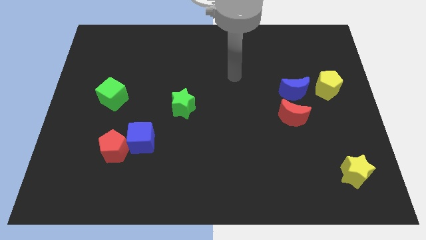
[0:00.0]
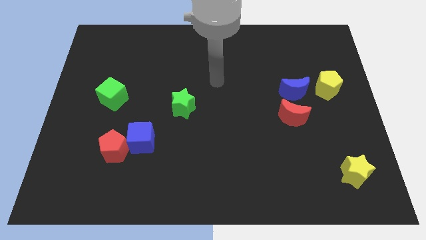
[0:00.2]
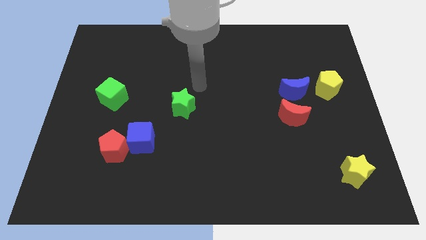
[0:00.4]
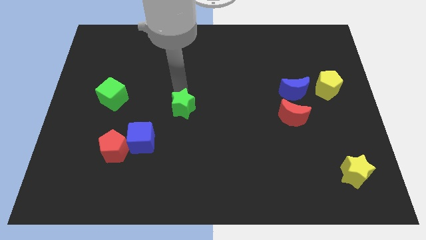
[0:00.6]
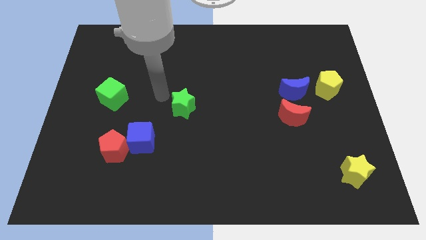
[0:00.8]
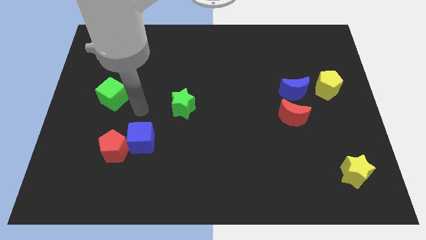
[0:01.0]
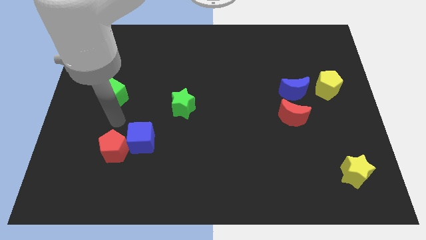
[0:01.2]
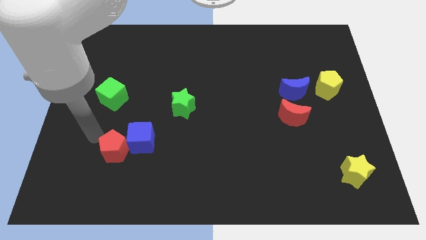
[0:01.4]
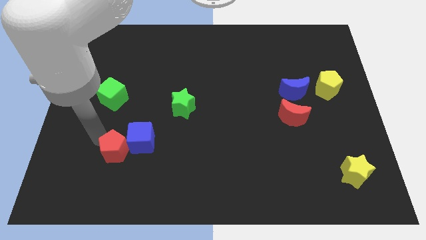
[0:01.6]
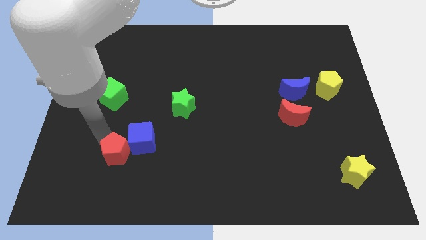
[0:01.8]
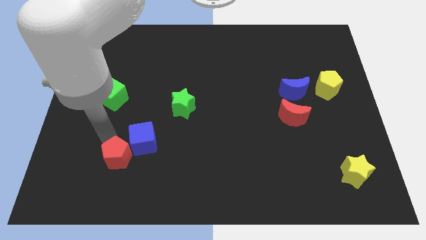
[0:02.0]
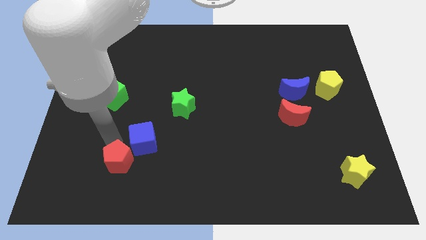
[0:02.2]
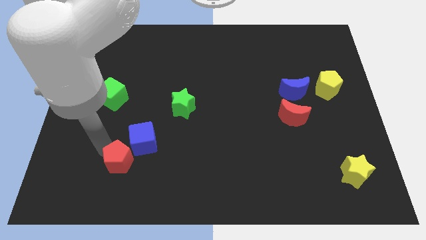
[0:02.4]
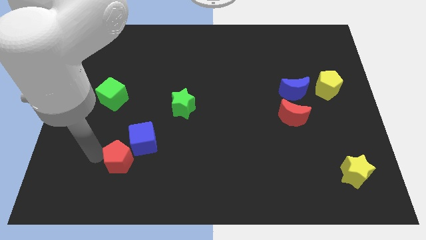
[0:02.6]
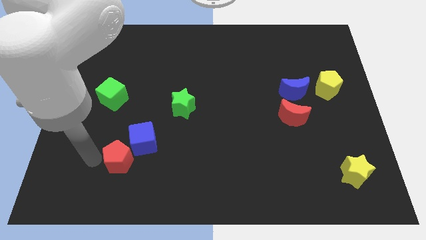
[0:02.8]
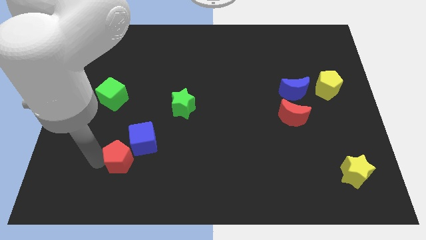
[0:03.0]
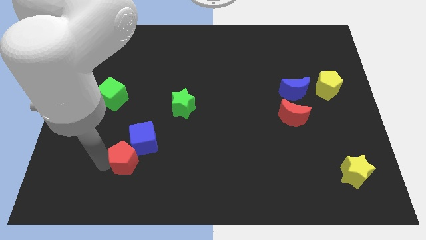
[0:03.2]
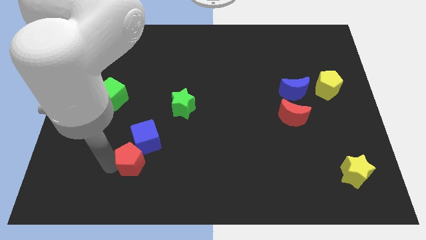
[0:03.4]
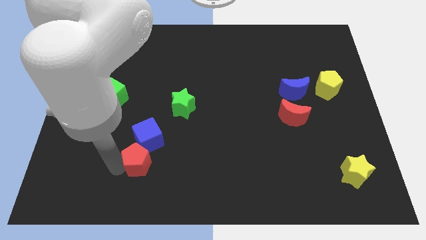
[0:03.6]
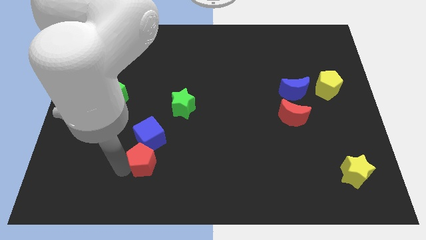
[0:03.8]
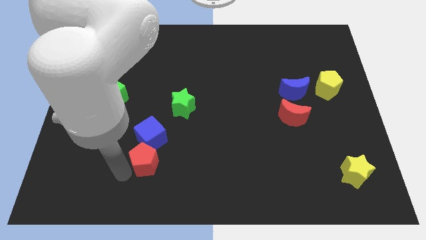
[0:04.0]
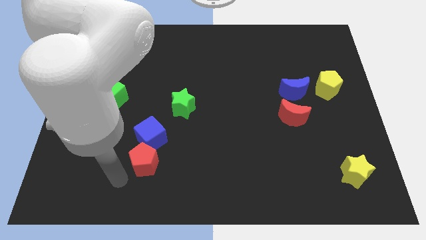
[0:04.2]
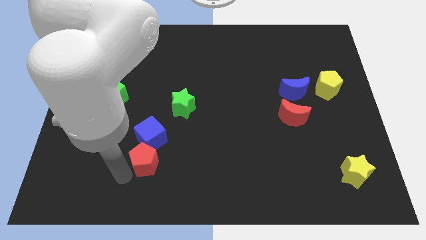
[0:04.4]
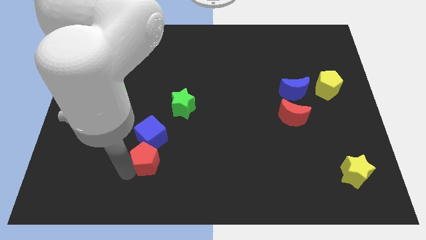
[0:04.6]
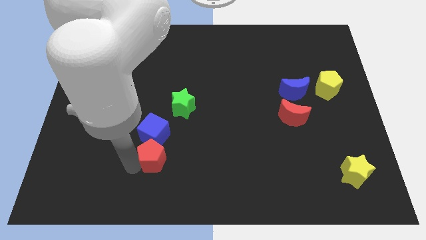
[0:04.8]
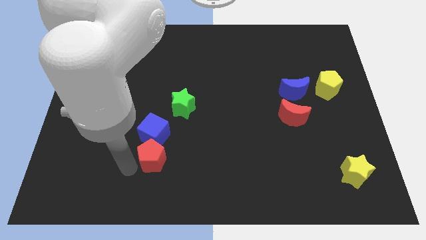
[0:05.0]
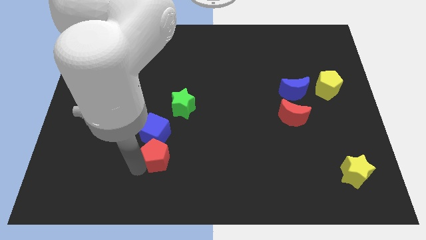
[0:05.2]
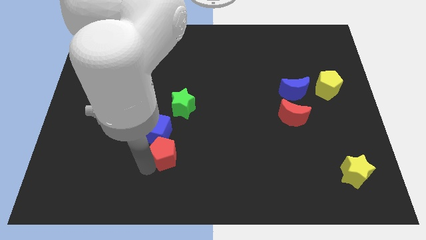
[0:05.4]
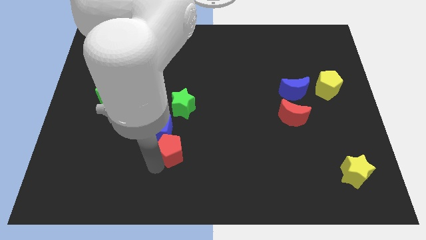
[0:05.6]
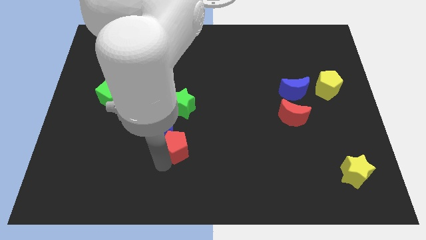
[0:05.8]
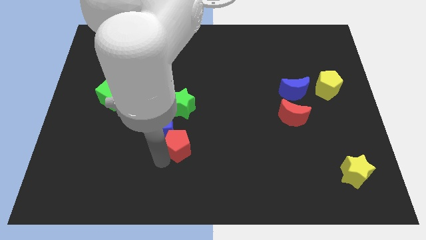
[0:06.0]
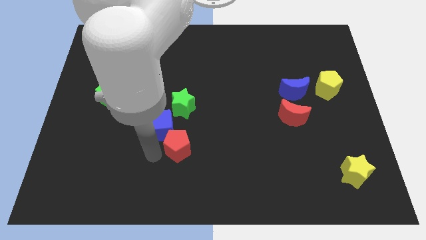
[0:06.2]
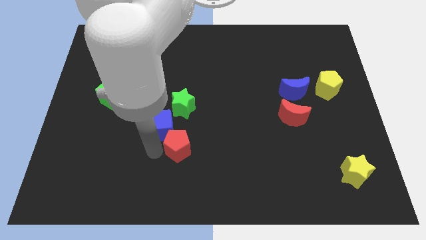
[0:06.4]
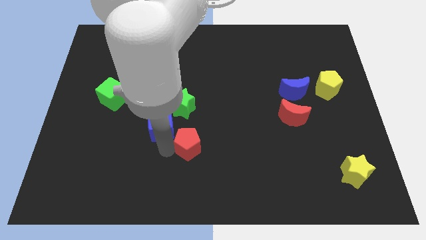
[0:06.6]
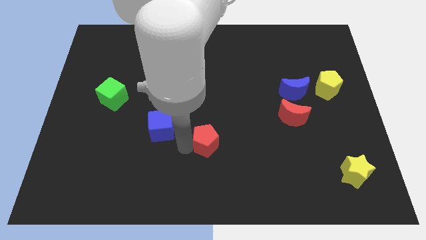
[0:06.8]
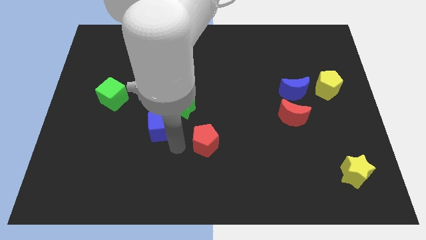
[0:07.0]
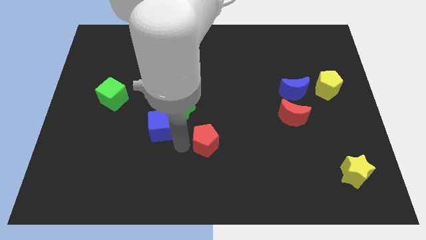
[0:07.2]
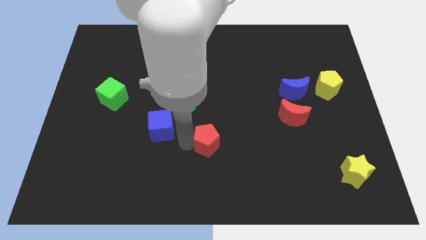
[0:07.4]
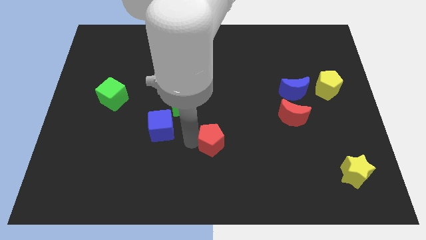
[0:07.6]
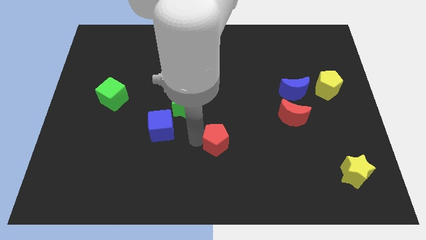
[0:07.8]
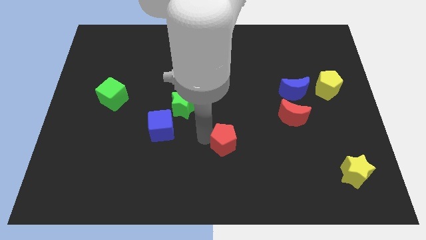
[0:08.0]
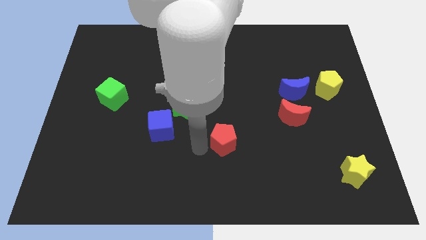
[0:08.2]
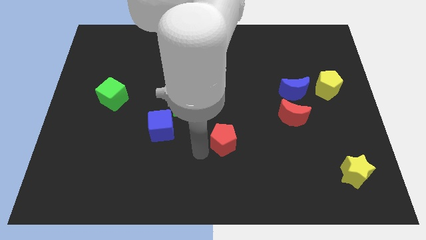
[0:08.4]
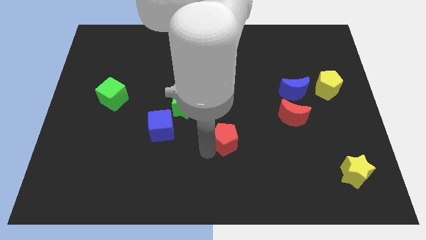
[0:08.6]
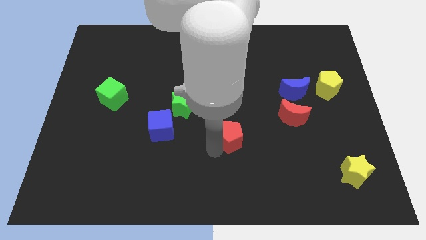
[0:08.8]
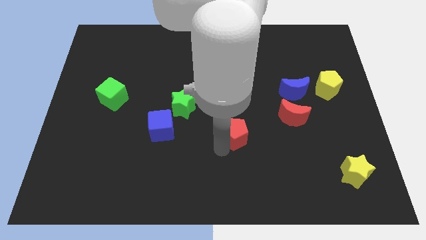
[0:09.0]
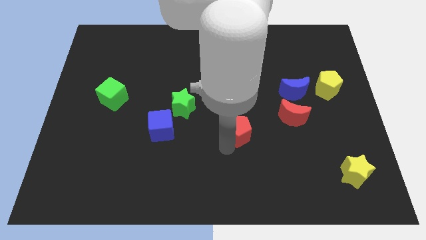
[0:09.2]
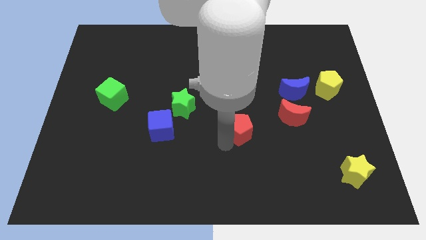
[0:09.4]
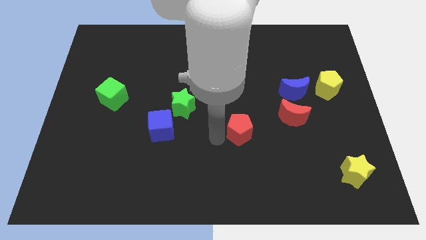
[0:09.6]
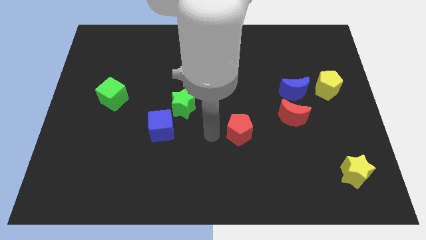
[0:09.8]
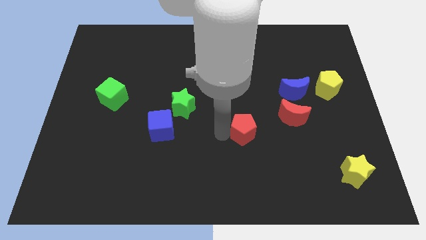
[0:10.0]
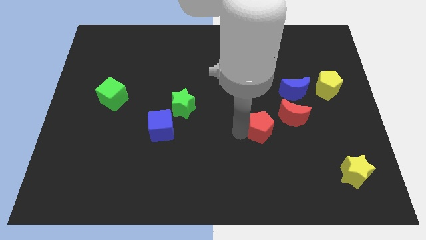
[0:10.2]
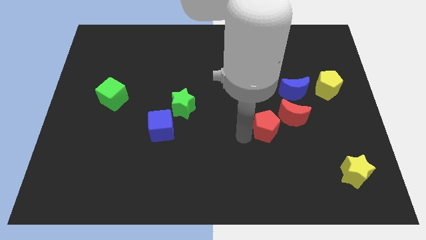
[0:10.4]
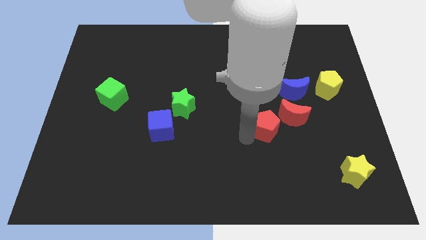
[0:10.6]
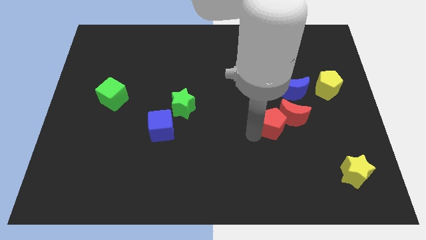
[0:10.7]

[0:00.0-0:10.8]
put the red pentagon next to the red moon

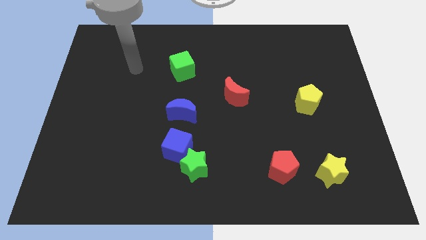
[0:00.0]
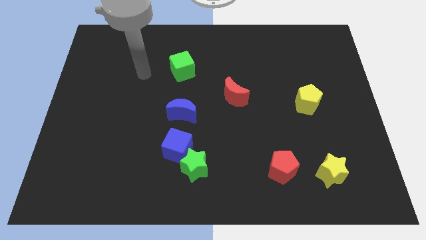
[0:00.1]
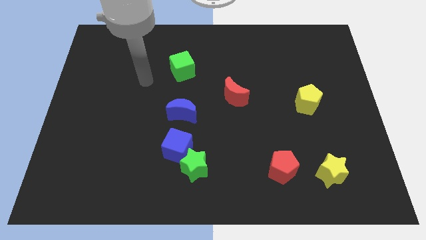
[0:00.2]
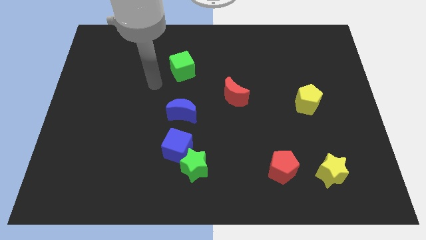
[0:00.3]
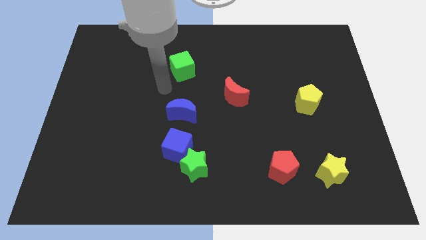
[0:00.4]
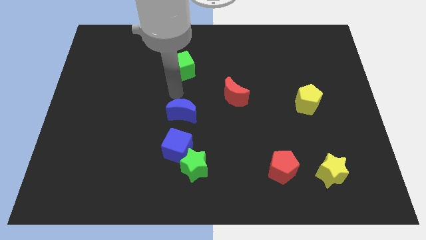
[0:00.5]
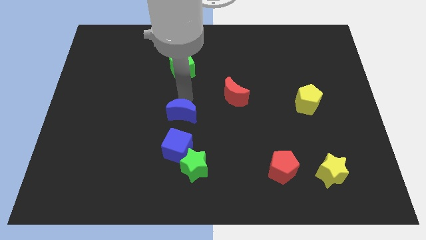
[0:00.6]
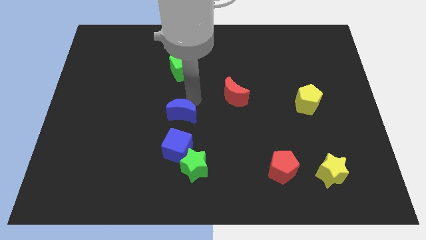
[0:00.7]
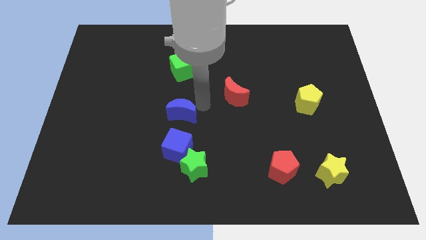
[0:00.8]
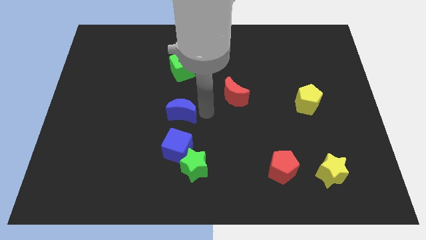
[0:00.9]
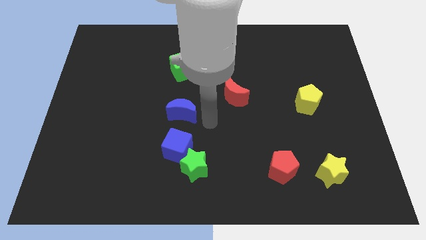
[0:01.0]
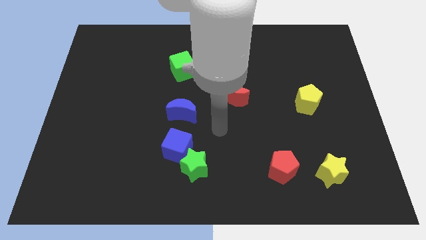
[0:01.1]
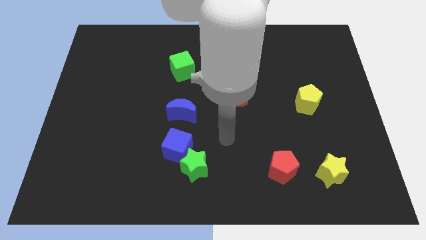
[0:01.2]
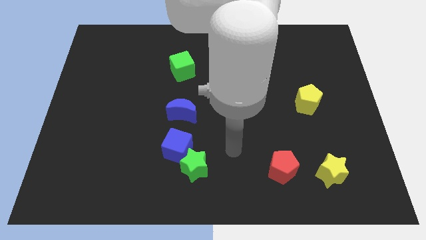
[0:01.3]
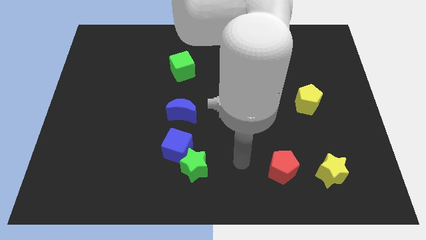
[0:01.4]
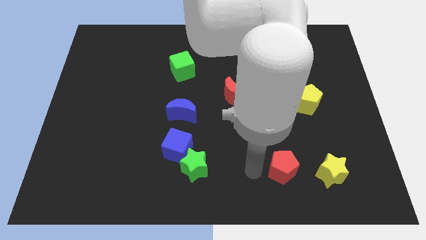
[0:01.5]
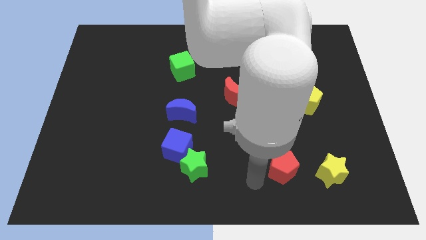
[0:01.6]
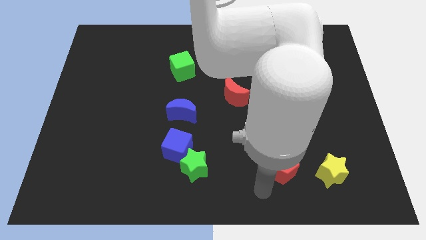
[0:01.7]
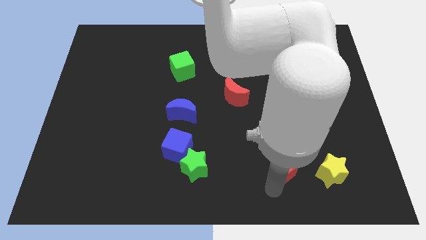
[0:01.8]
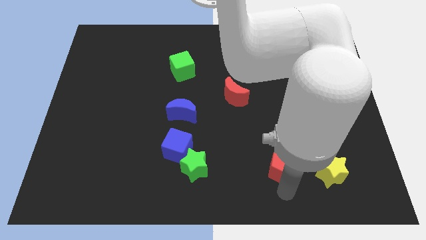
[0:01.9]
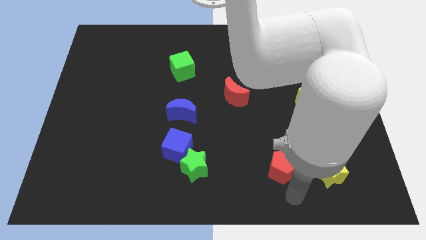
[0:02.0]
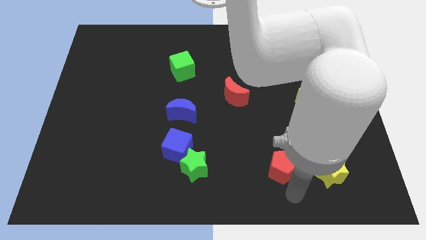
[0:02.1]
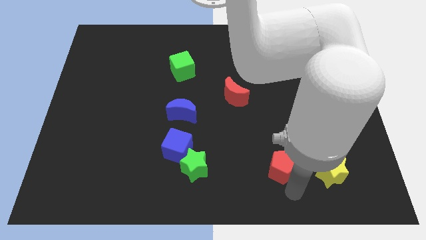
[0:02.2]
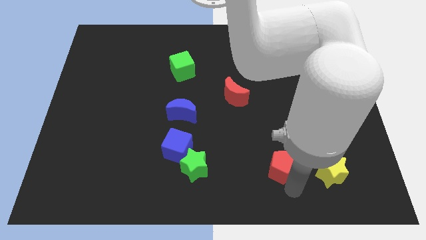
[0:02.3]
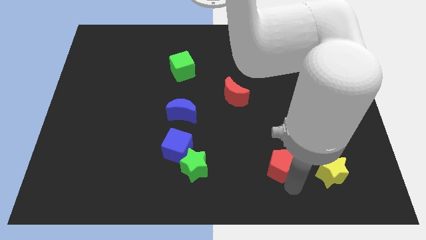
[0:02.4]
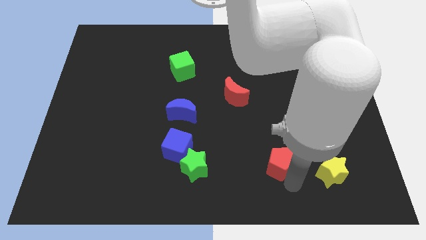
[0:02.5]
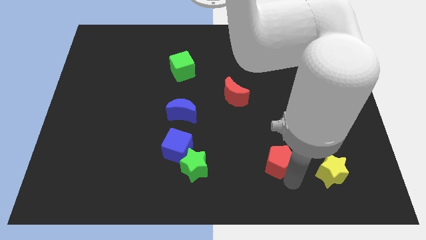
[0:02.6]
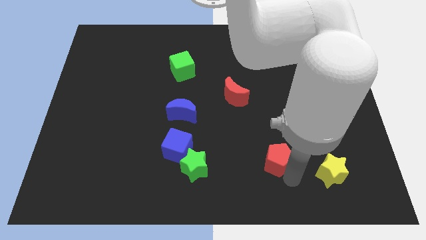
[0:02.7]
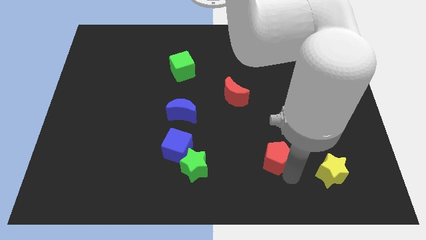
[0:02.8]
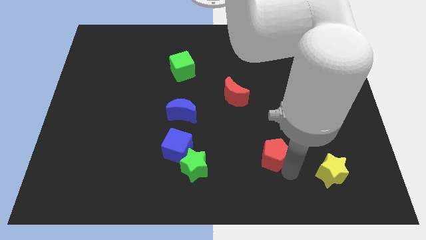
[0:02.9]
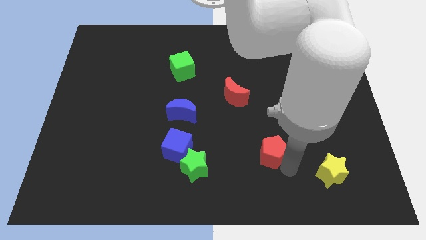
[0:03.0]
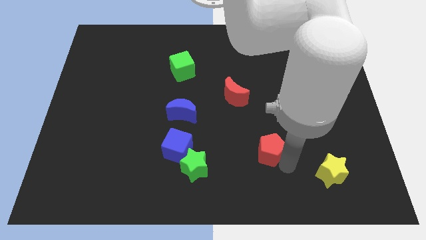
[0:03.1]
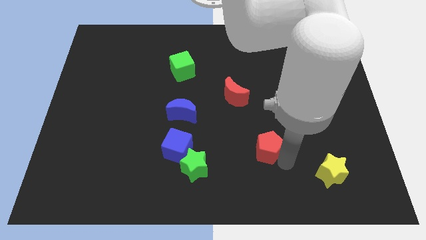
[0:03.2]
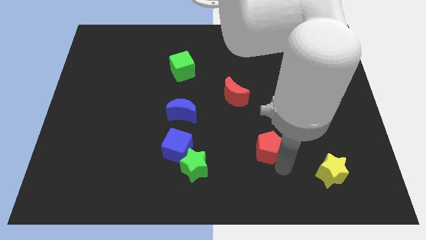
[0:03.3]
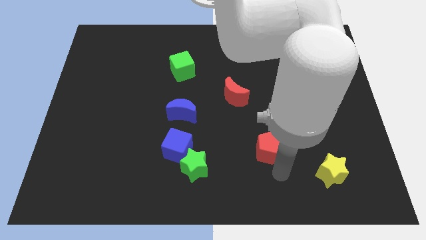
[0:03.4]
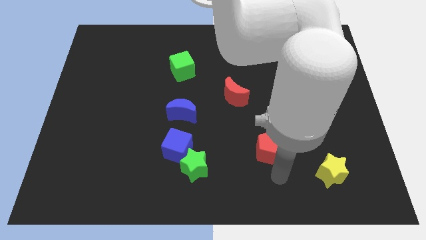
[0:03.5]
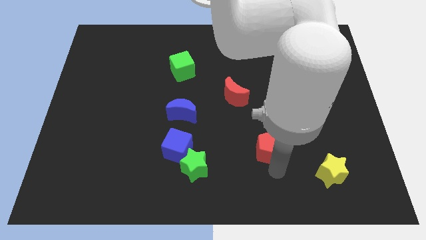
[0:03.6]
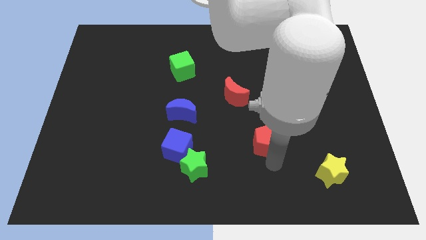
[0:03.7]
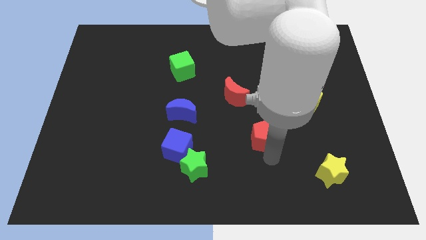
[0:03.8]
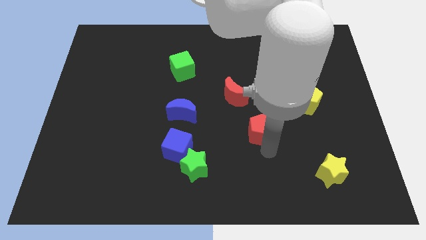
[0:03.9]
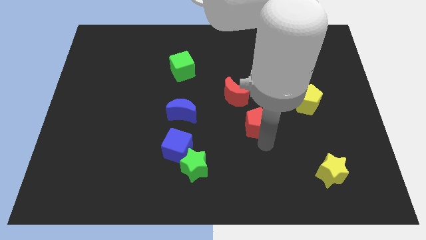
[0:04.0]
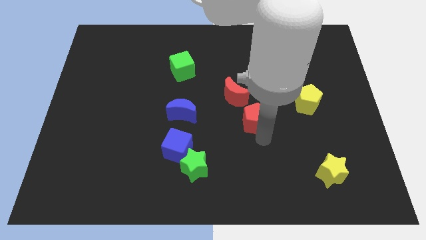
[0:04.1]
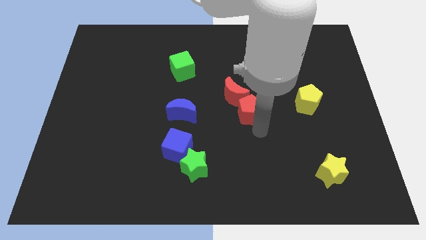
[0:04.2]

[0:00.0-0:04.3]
slide the red pentagon towards the red moon
